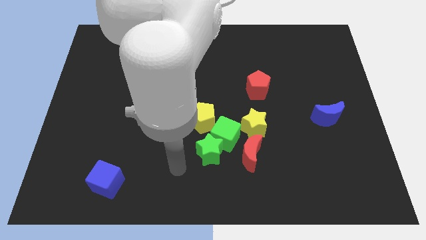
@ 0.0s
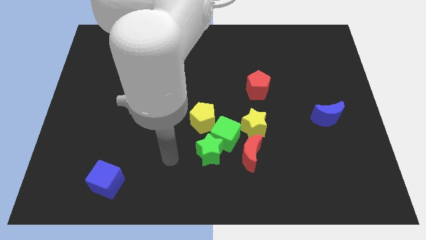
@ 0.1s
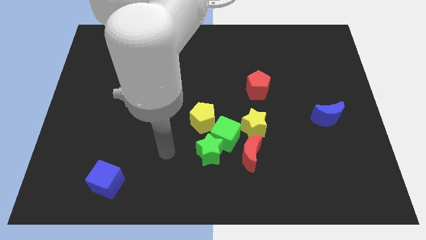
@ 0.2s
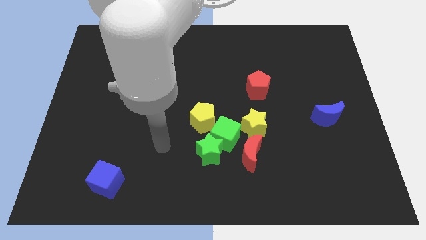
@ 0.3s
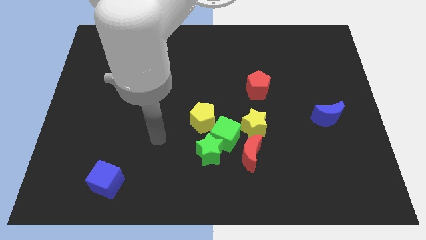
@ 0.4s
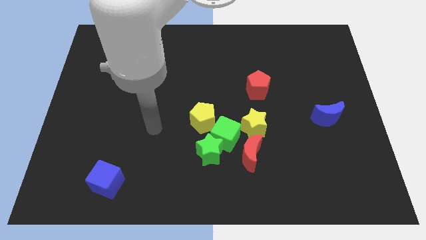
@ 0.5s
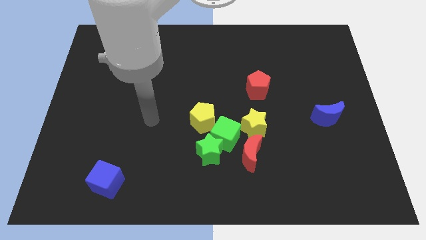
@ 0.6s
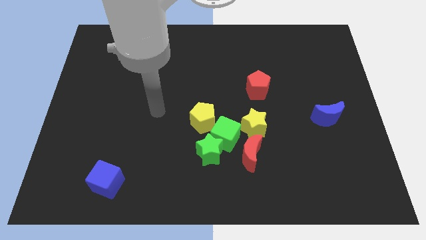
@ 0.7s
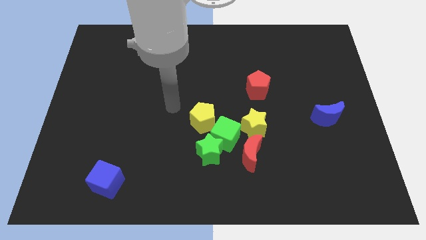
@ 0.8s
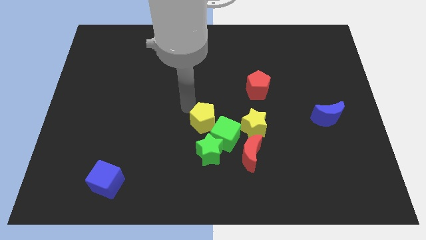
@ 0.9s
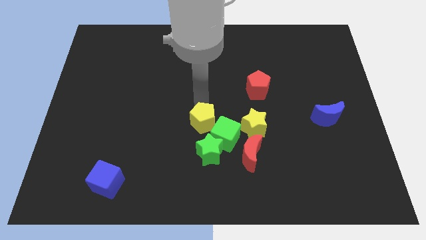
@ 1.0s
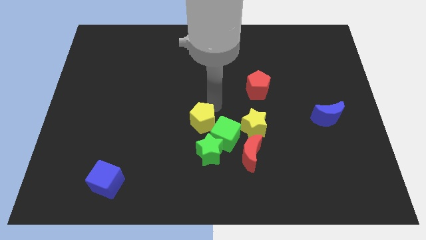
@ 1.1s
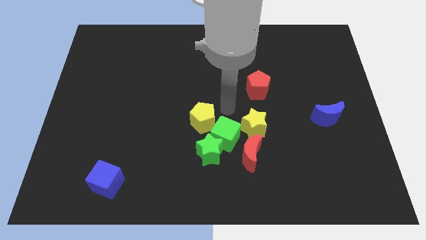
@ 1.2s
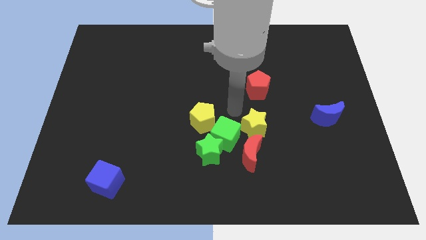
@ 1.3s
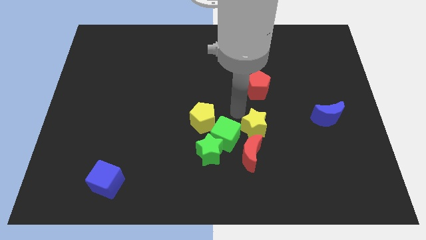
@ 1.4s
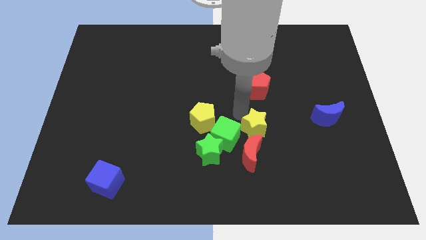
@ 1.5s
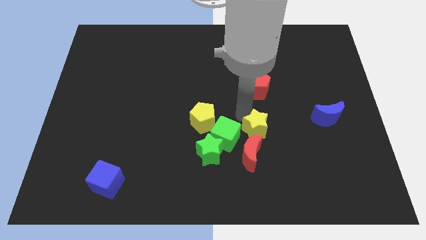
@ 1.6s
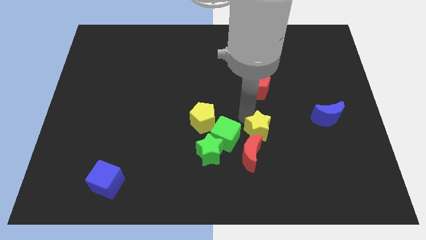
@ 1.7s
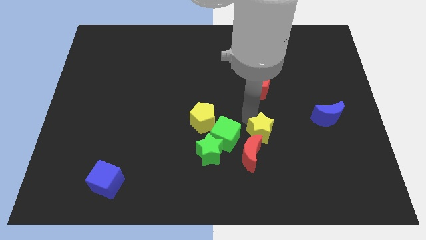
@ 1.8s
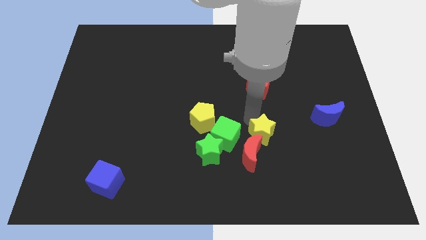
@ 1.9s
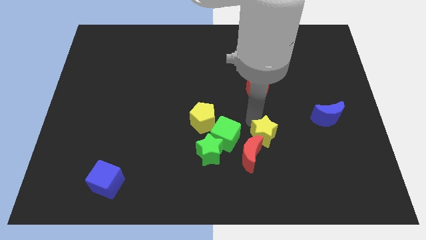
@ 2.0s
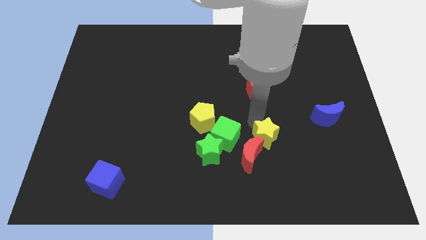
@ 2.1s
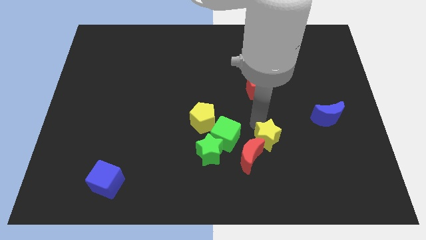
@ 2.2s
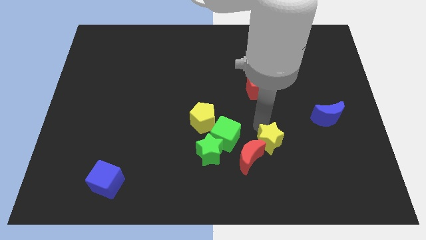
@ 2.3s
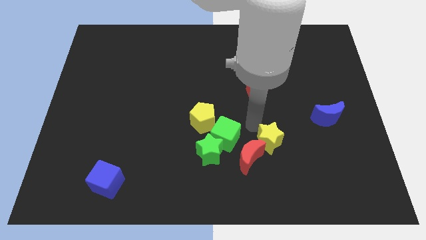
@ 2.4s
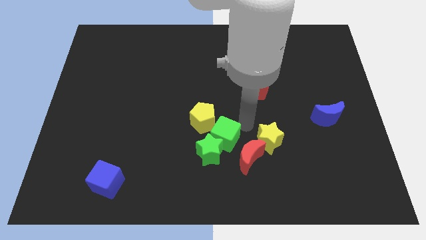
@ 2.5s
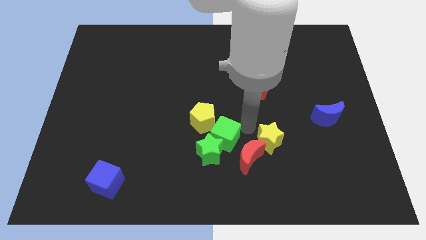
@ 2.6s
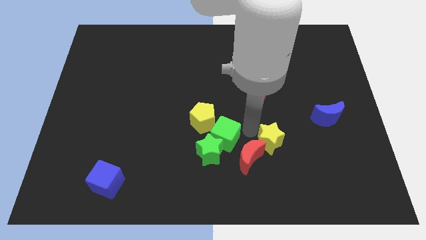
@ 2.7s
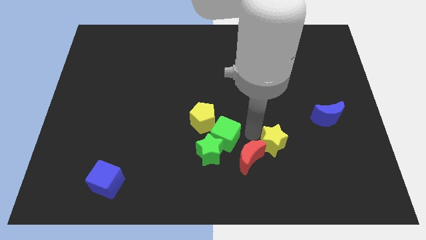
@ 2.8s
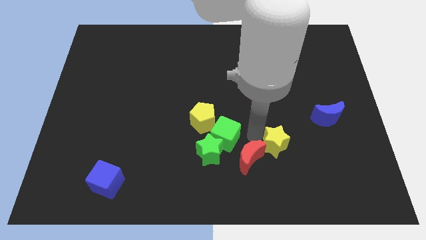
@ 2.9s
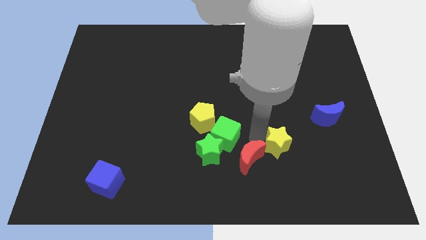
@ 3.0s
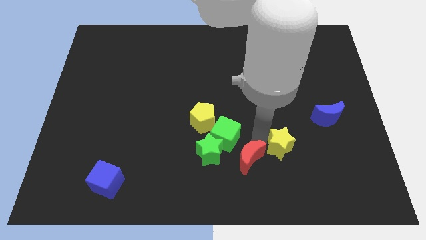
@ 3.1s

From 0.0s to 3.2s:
move the yellow star a bit downwards and right

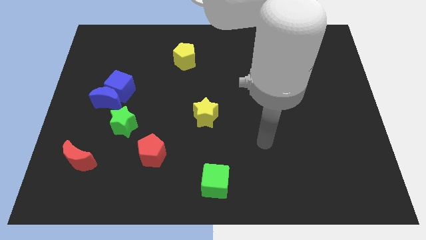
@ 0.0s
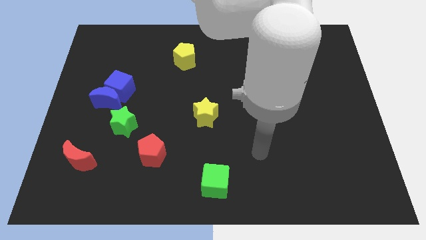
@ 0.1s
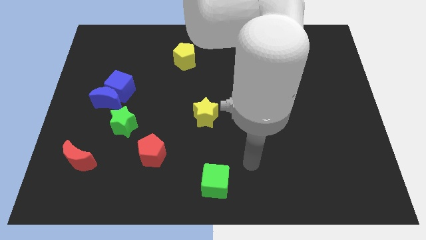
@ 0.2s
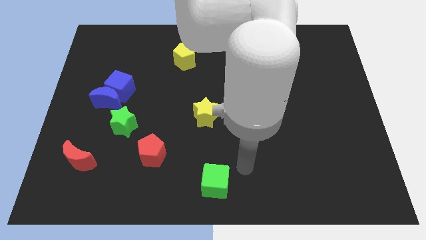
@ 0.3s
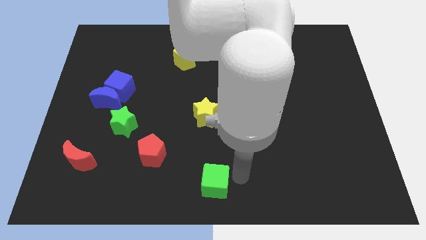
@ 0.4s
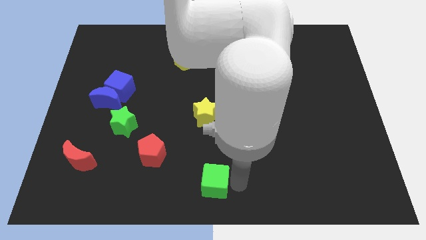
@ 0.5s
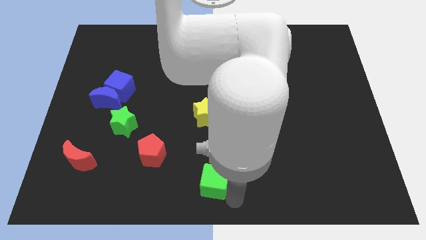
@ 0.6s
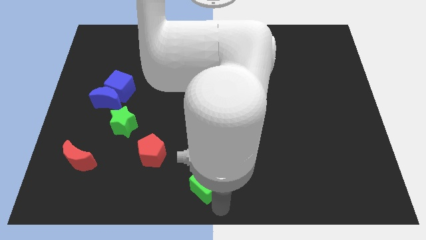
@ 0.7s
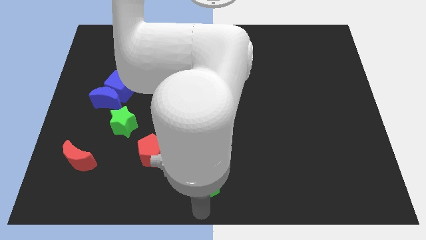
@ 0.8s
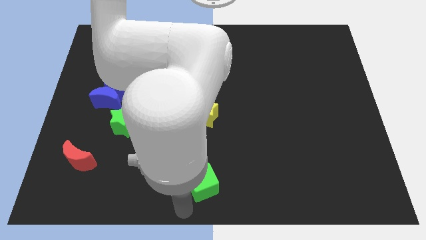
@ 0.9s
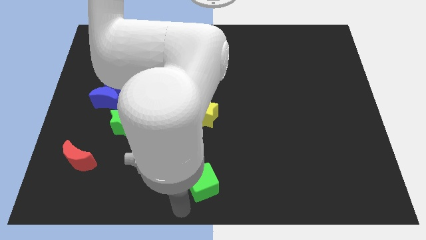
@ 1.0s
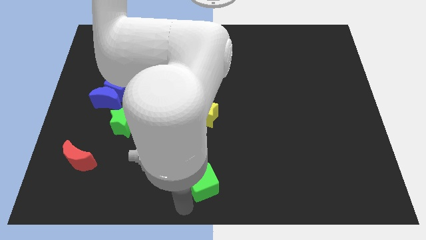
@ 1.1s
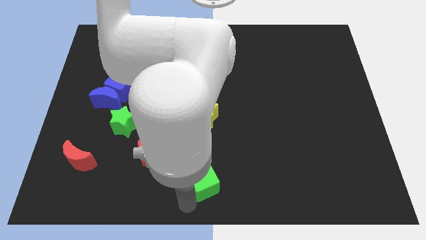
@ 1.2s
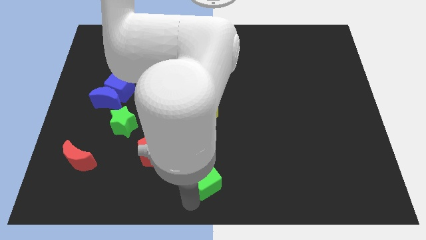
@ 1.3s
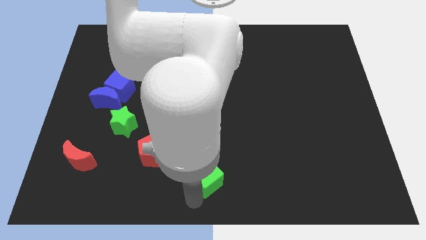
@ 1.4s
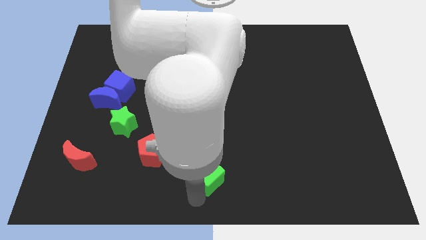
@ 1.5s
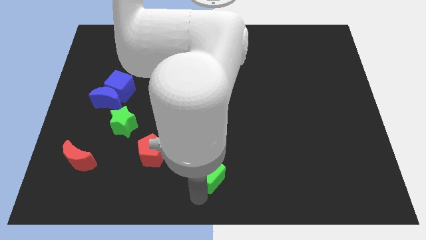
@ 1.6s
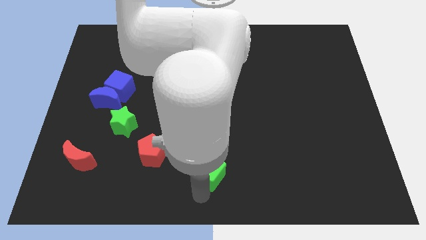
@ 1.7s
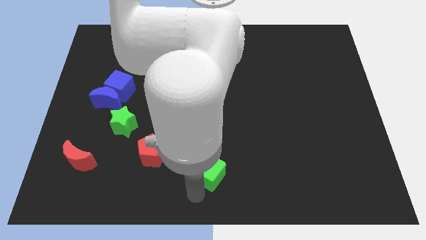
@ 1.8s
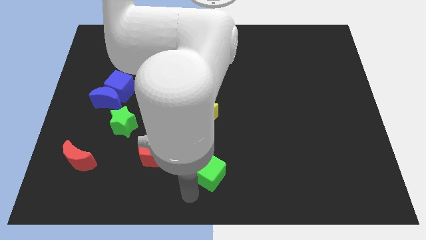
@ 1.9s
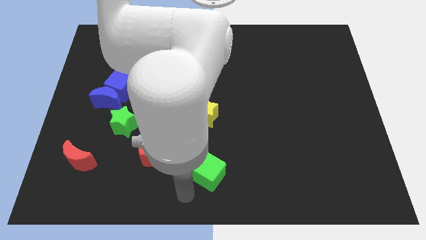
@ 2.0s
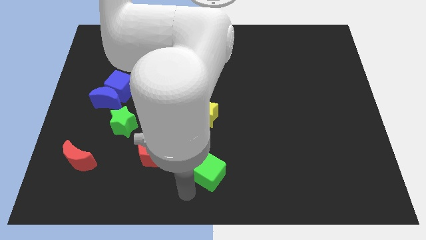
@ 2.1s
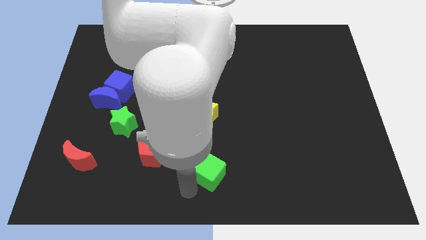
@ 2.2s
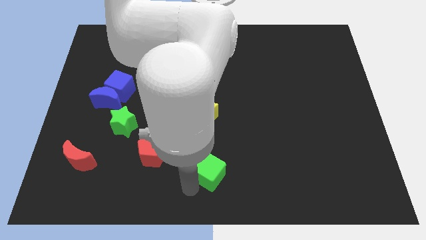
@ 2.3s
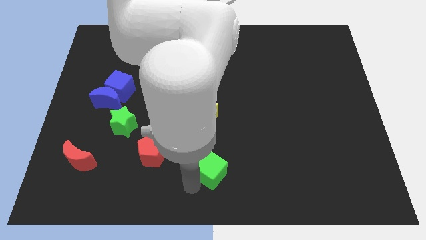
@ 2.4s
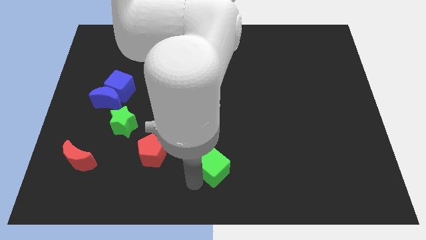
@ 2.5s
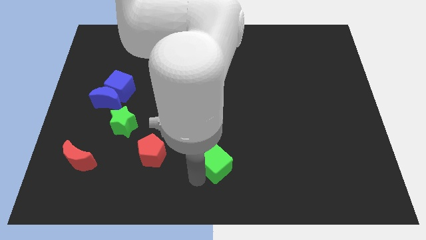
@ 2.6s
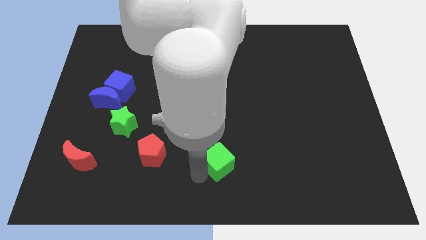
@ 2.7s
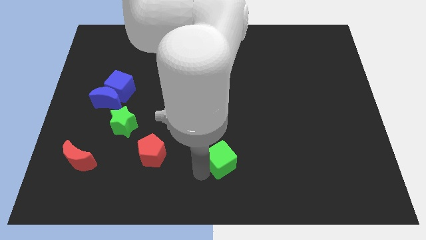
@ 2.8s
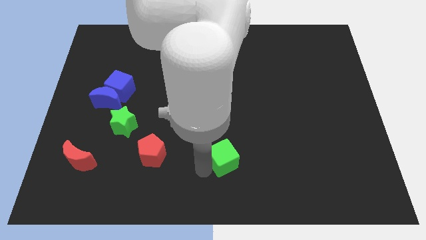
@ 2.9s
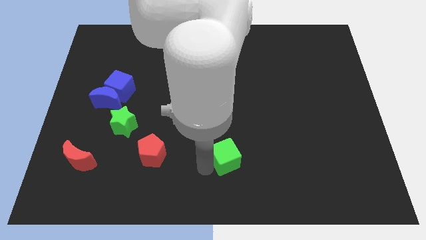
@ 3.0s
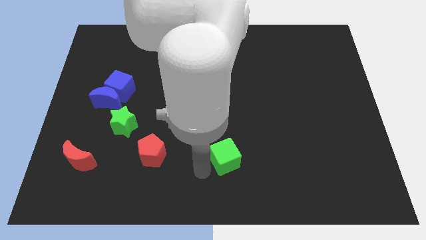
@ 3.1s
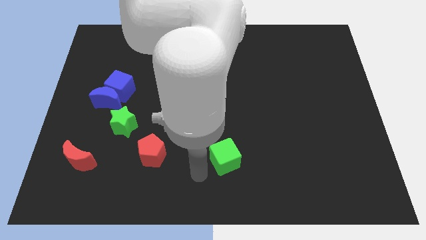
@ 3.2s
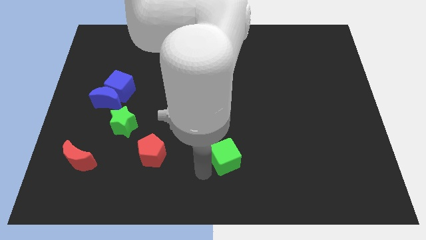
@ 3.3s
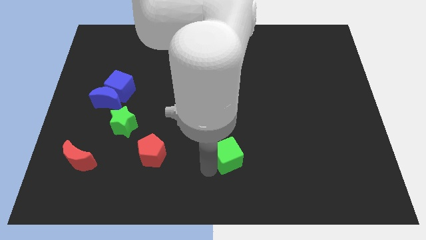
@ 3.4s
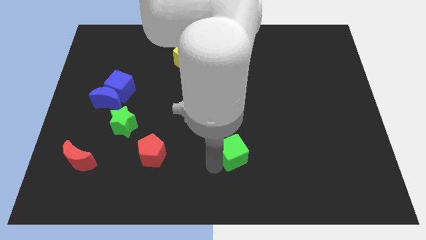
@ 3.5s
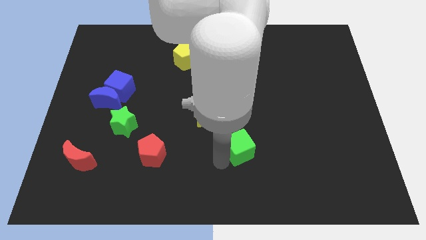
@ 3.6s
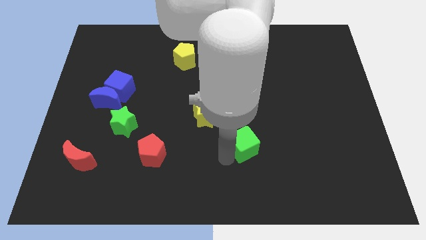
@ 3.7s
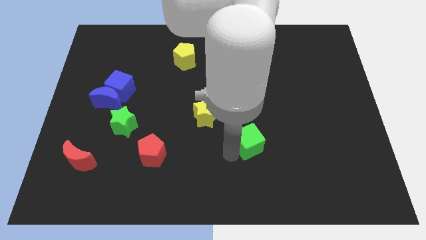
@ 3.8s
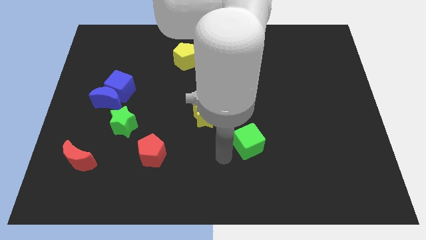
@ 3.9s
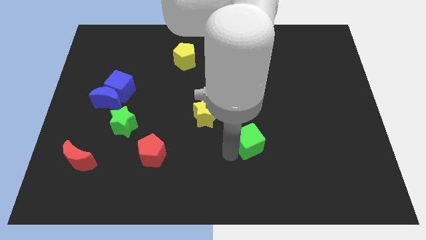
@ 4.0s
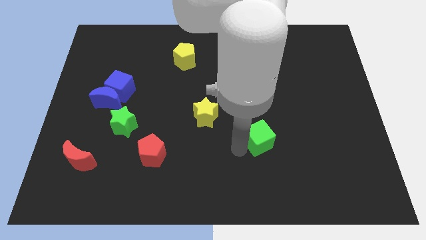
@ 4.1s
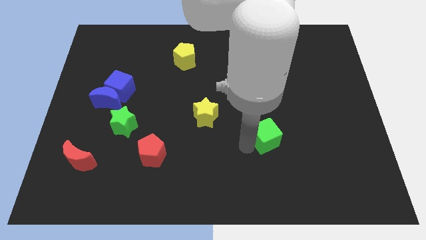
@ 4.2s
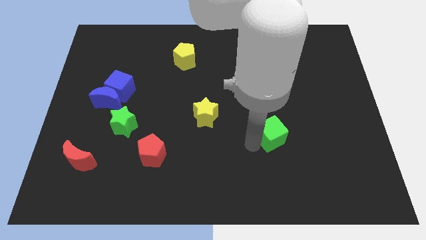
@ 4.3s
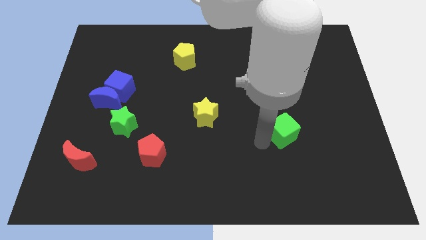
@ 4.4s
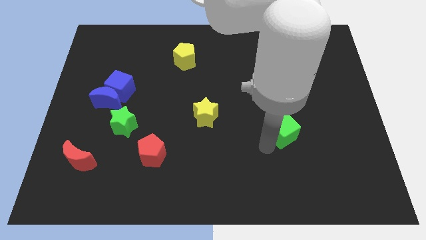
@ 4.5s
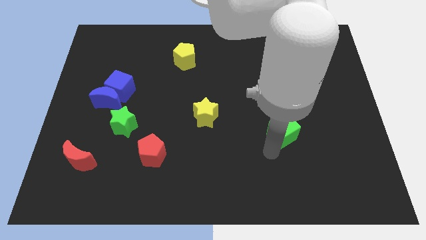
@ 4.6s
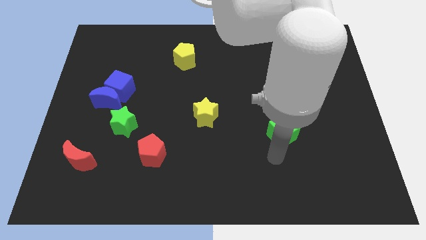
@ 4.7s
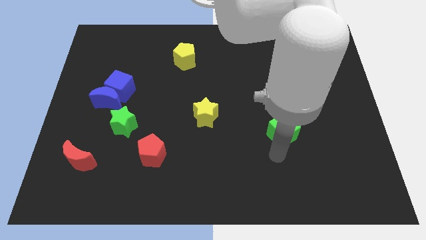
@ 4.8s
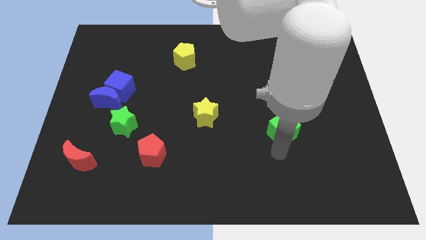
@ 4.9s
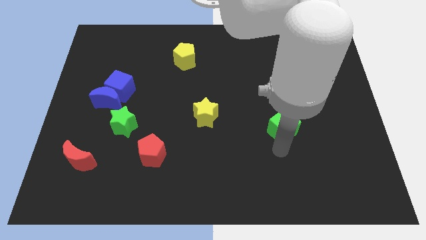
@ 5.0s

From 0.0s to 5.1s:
slide the green cube upwards and then to the right

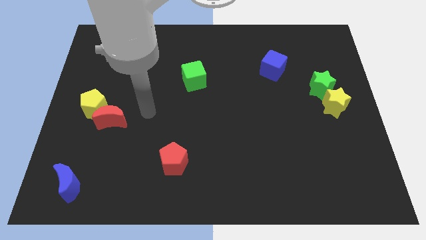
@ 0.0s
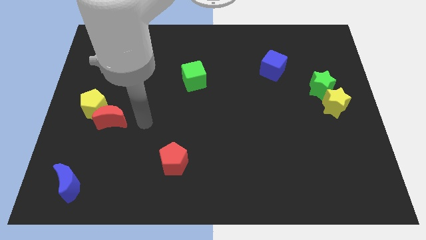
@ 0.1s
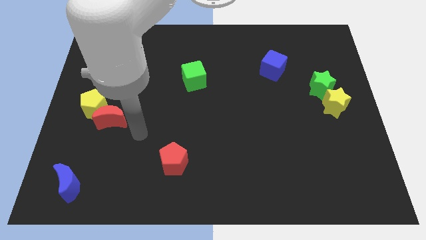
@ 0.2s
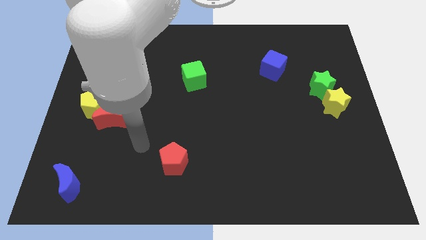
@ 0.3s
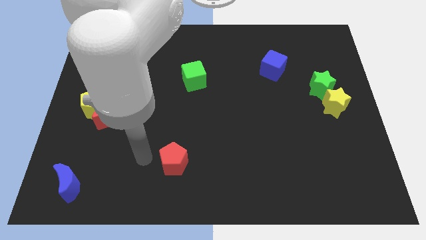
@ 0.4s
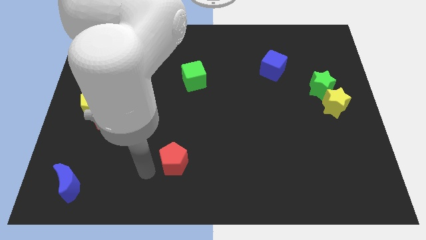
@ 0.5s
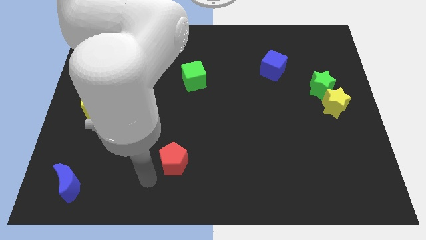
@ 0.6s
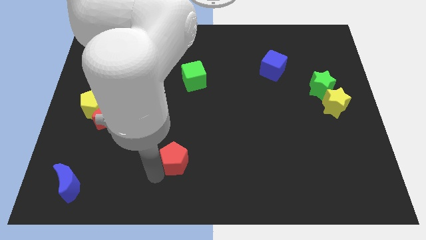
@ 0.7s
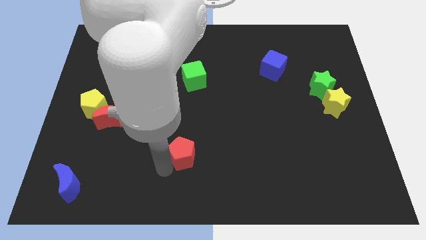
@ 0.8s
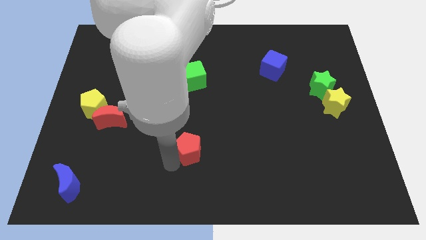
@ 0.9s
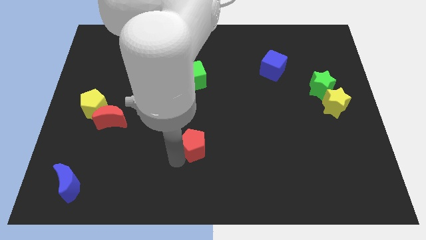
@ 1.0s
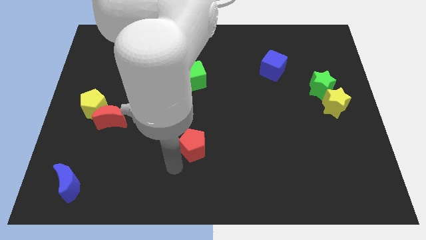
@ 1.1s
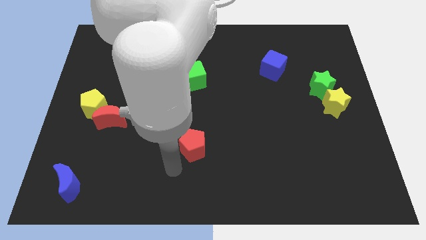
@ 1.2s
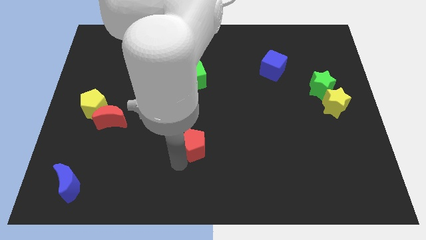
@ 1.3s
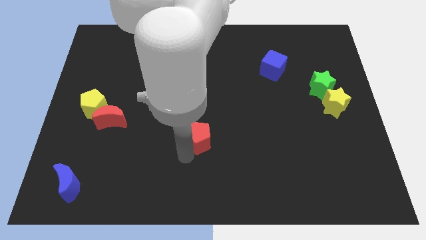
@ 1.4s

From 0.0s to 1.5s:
slide the red pentagon upwards and right a little
